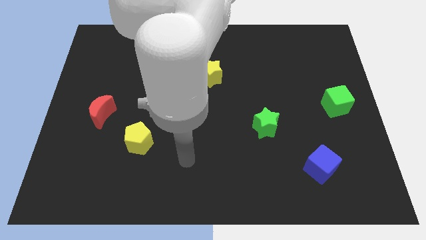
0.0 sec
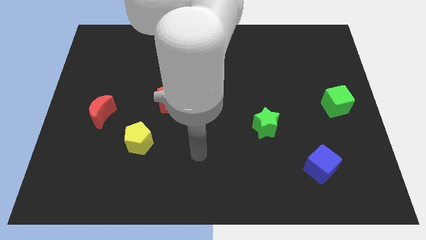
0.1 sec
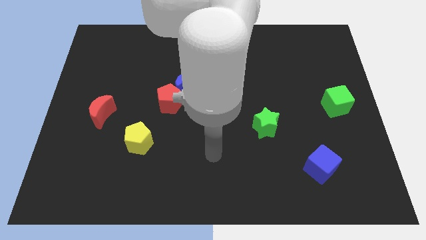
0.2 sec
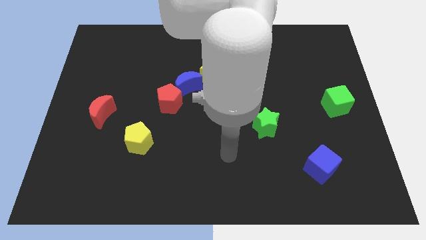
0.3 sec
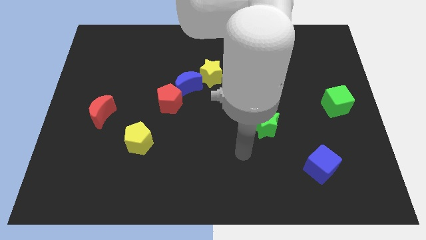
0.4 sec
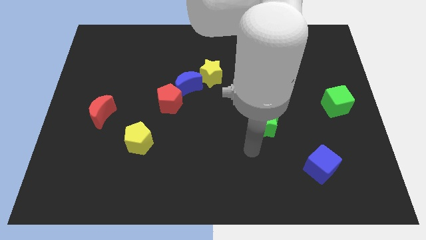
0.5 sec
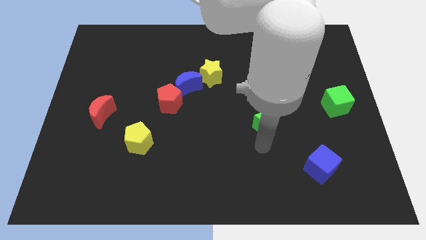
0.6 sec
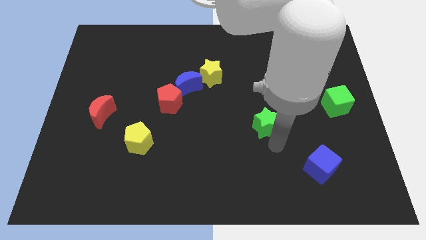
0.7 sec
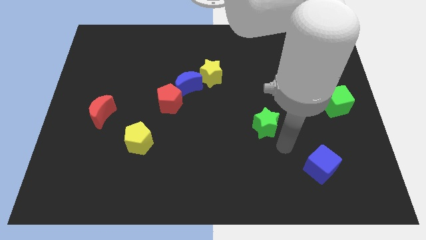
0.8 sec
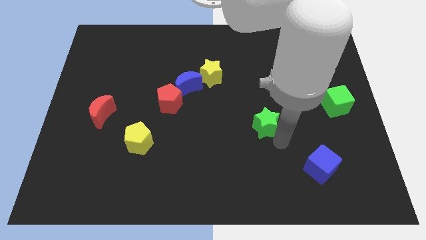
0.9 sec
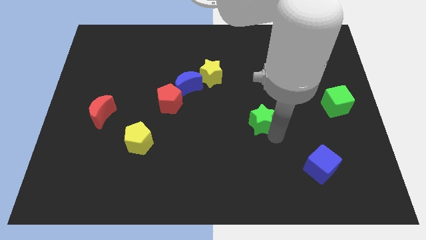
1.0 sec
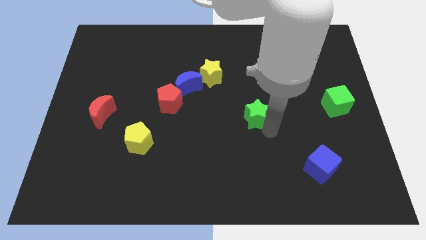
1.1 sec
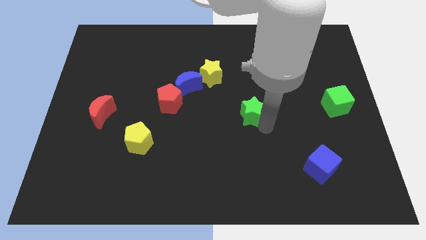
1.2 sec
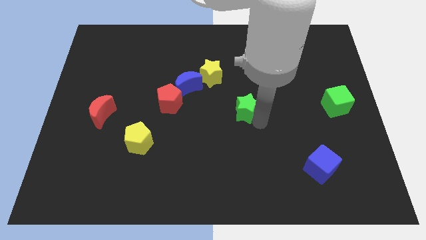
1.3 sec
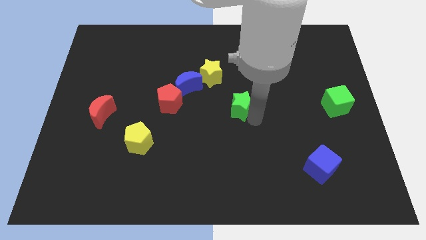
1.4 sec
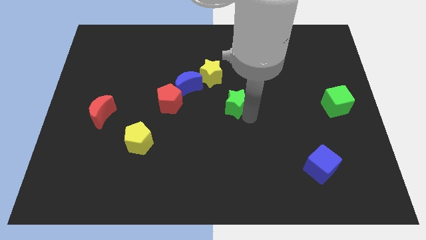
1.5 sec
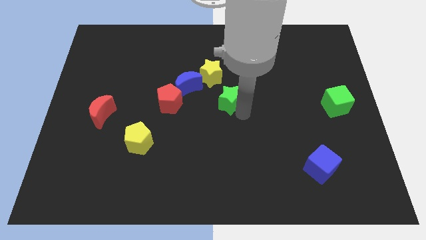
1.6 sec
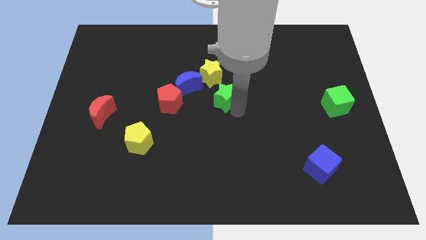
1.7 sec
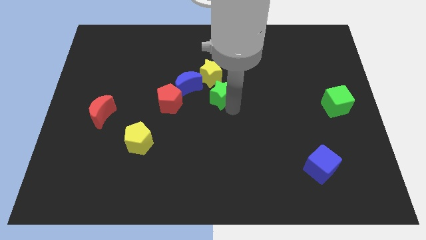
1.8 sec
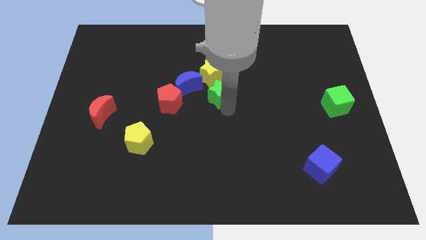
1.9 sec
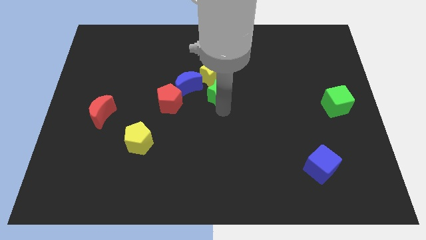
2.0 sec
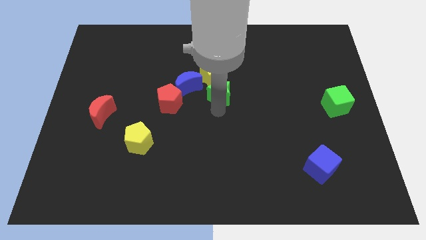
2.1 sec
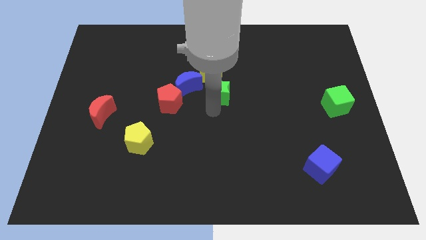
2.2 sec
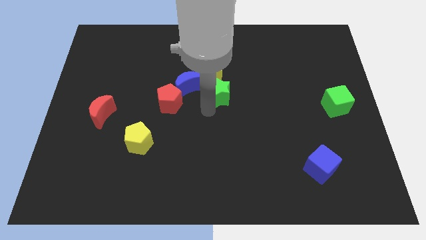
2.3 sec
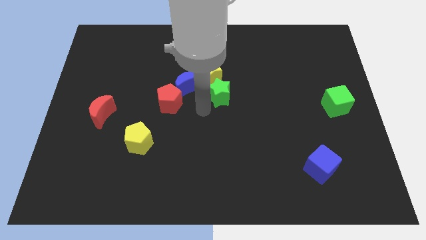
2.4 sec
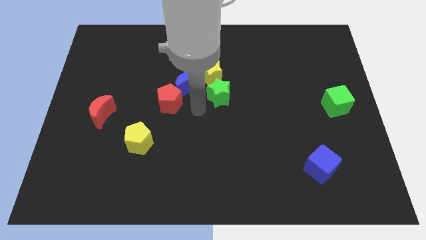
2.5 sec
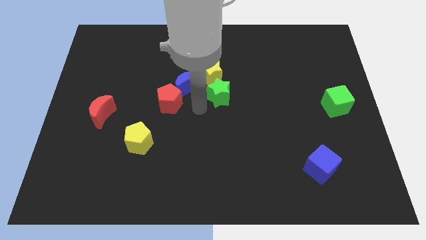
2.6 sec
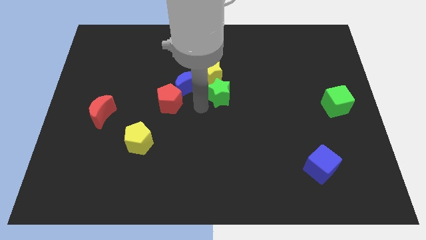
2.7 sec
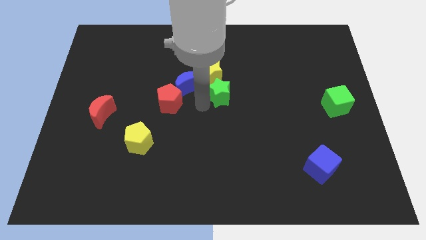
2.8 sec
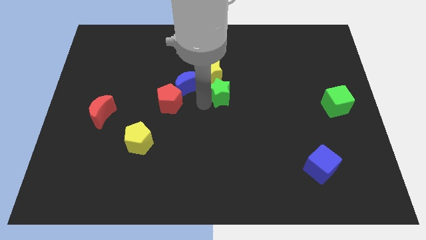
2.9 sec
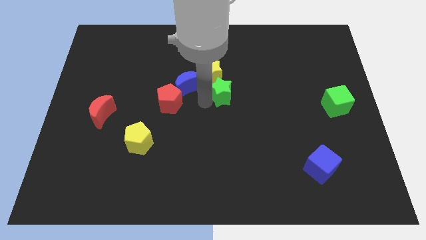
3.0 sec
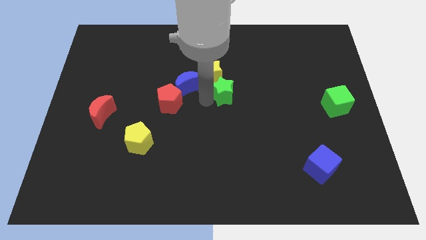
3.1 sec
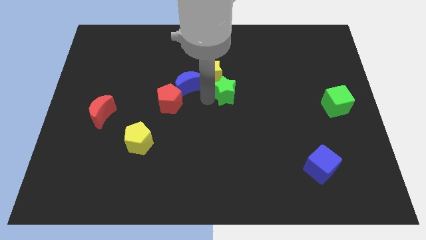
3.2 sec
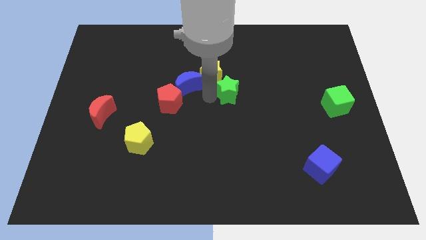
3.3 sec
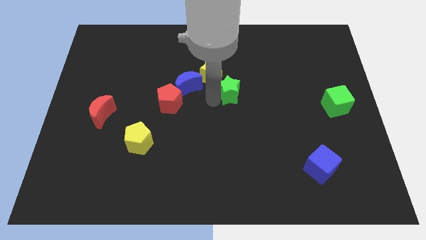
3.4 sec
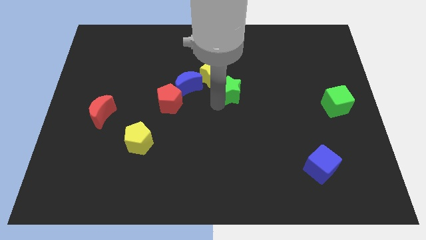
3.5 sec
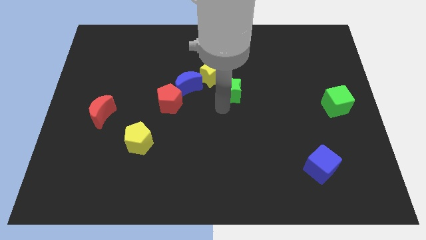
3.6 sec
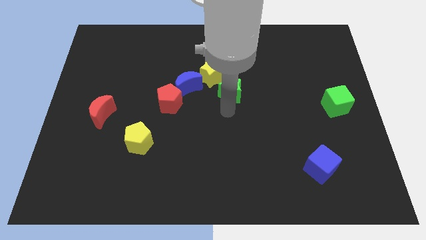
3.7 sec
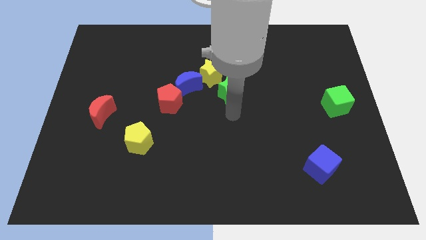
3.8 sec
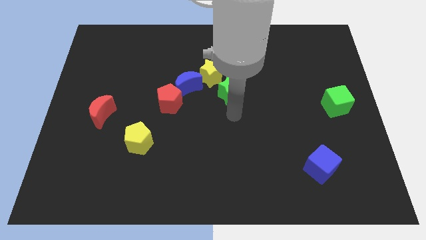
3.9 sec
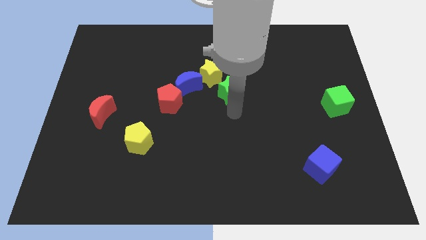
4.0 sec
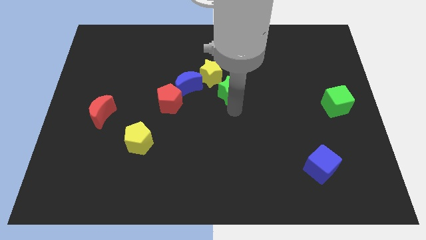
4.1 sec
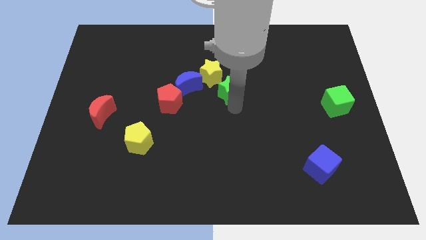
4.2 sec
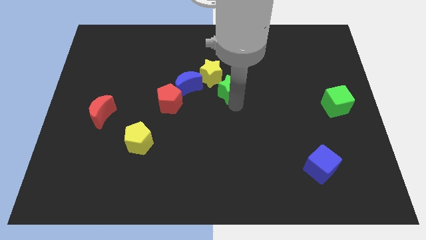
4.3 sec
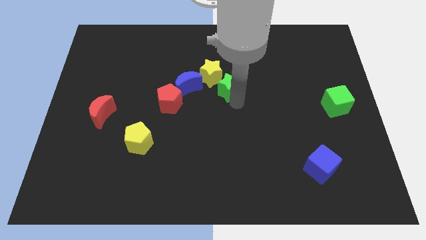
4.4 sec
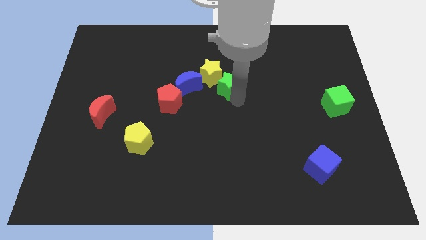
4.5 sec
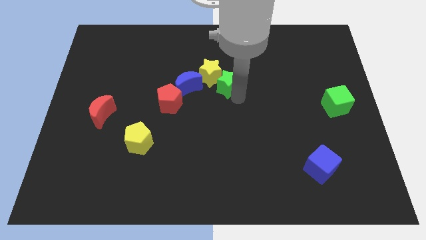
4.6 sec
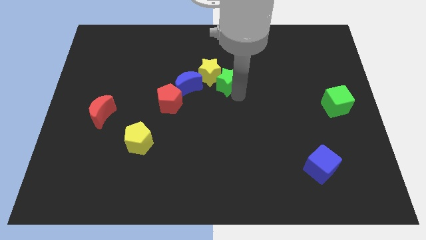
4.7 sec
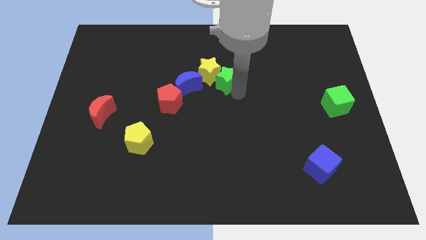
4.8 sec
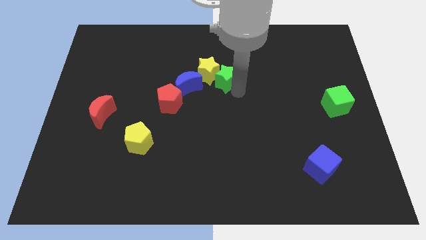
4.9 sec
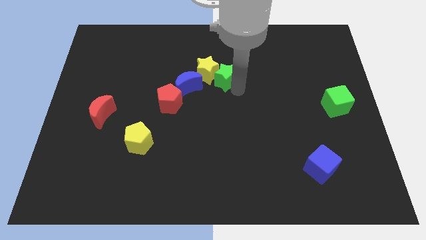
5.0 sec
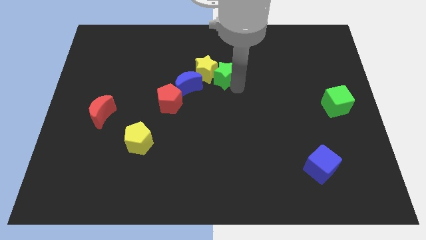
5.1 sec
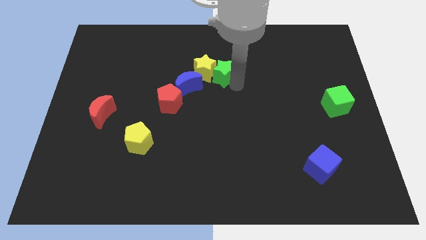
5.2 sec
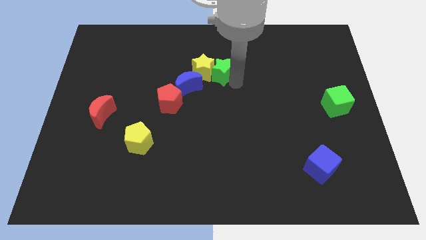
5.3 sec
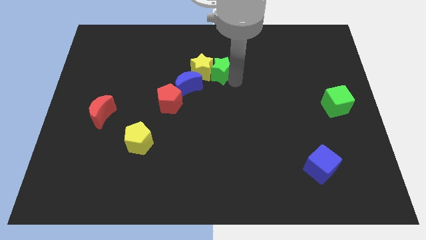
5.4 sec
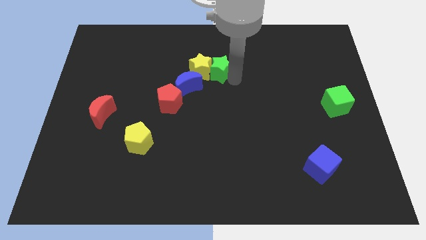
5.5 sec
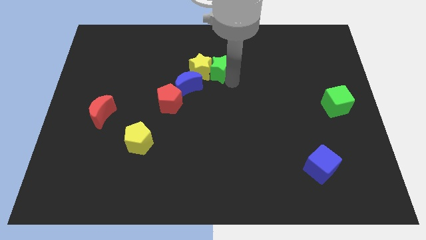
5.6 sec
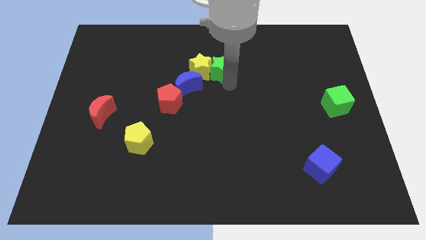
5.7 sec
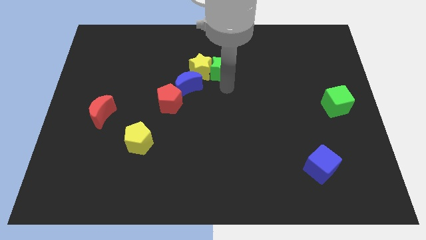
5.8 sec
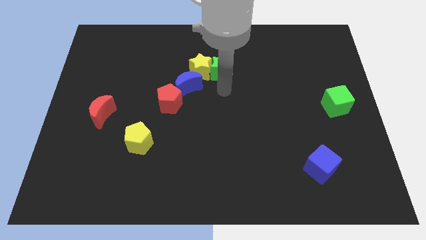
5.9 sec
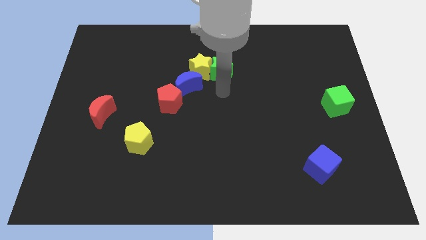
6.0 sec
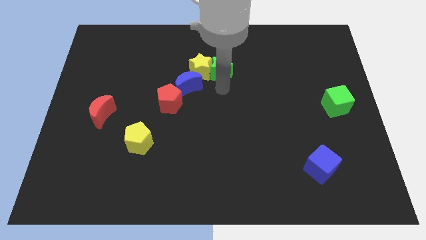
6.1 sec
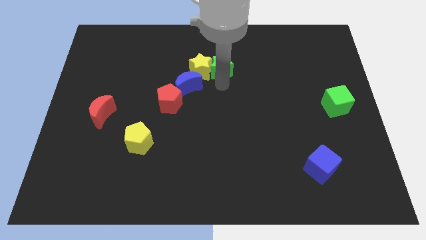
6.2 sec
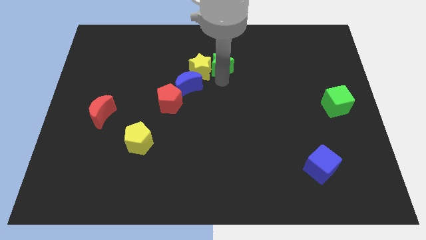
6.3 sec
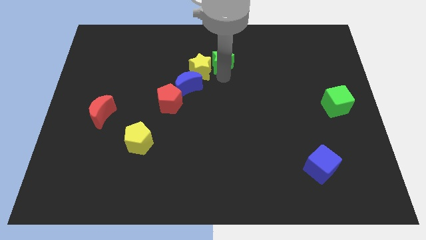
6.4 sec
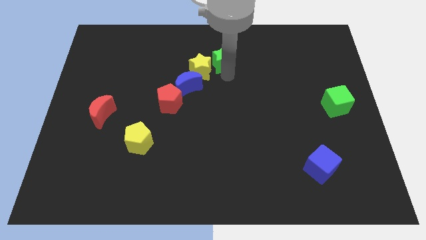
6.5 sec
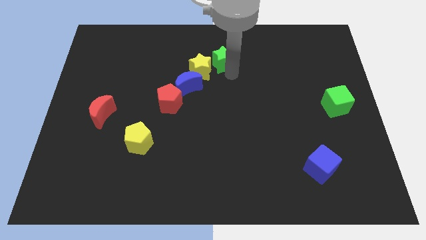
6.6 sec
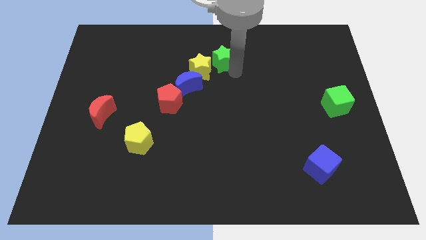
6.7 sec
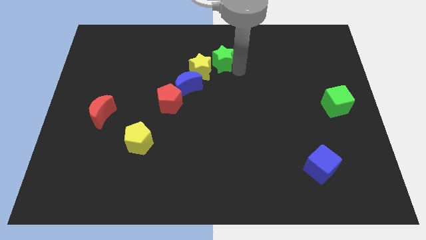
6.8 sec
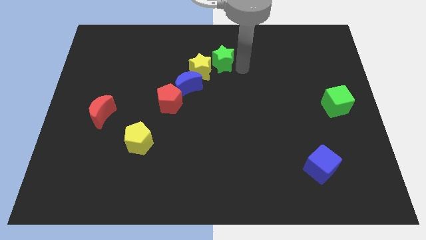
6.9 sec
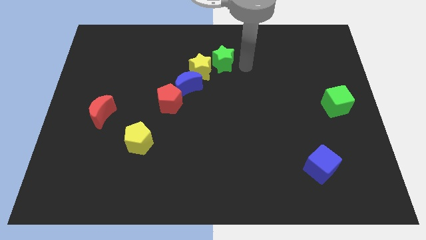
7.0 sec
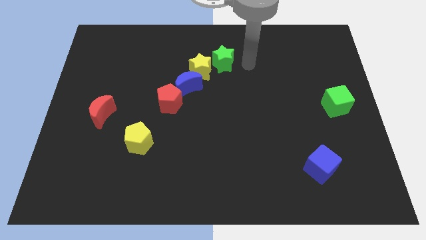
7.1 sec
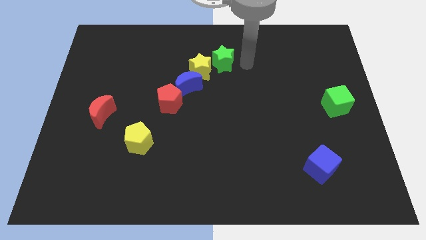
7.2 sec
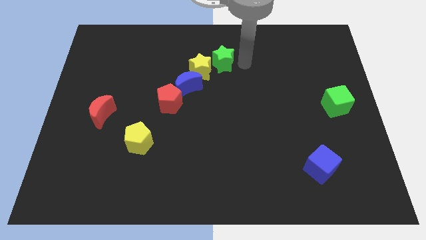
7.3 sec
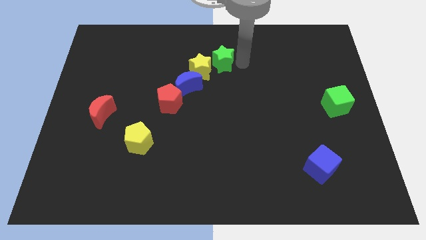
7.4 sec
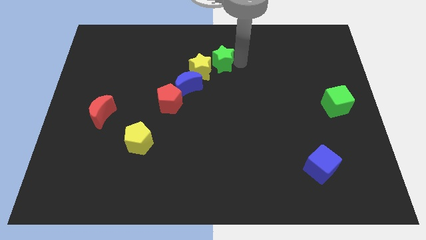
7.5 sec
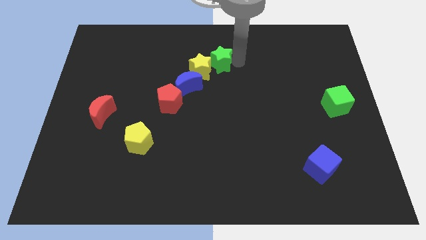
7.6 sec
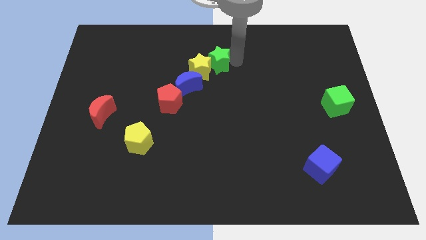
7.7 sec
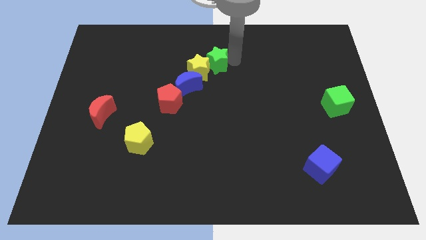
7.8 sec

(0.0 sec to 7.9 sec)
slide the green star diagonally up and left

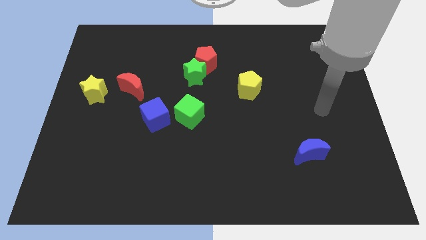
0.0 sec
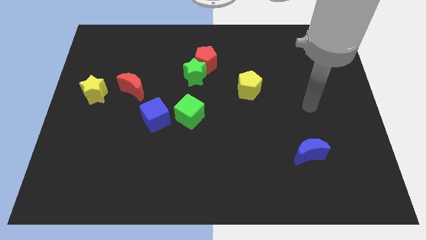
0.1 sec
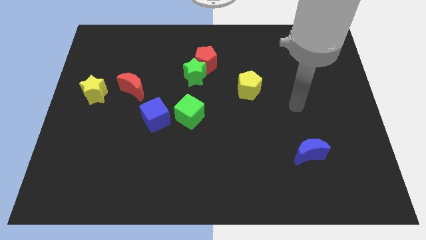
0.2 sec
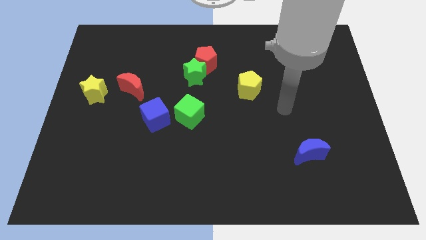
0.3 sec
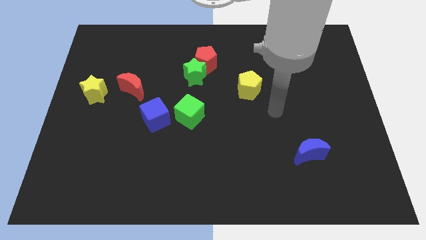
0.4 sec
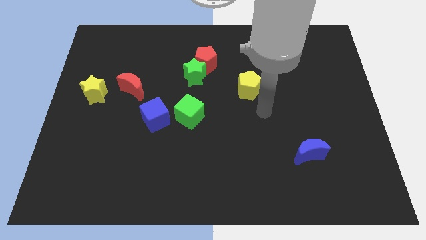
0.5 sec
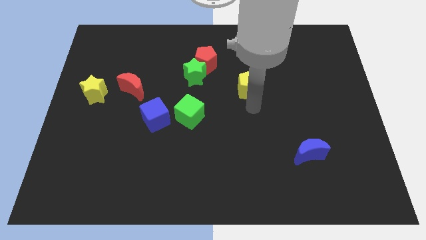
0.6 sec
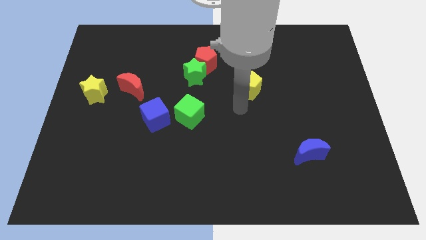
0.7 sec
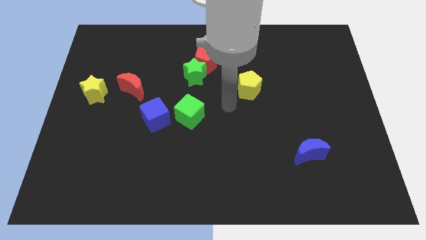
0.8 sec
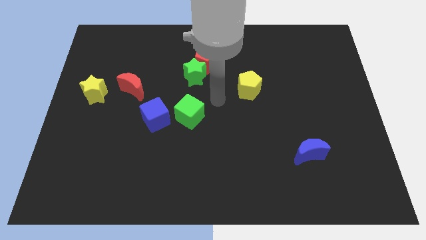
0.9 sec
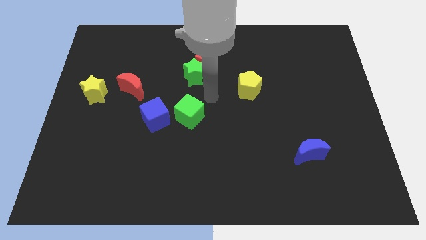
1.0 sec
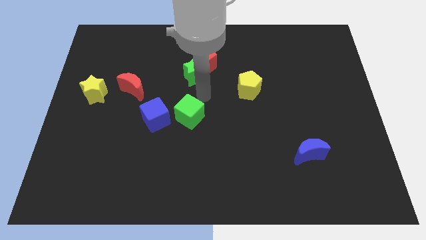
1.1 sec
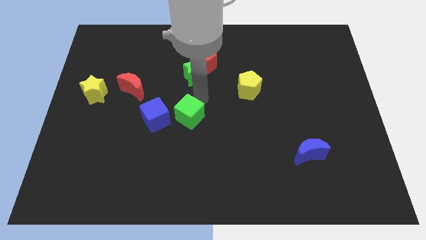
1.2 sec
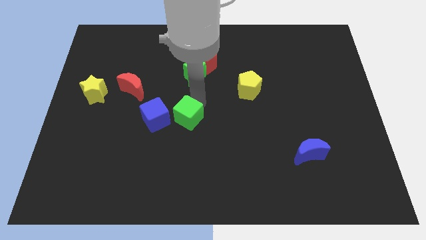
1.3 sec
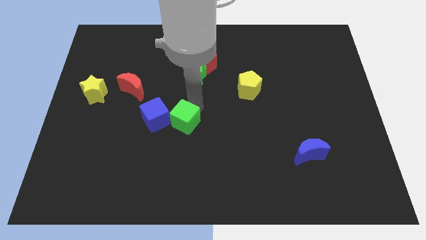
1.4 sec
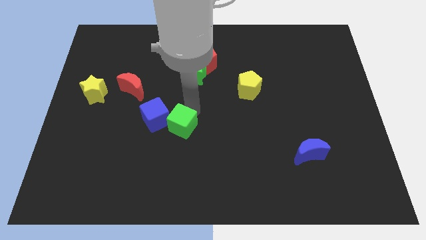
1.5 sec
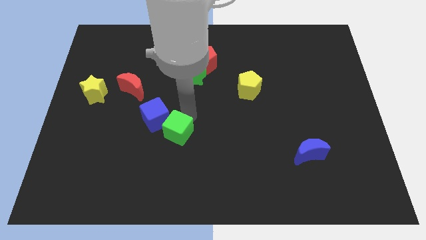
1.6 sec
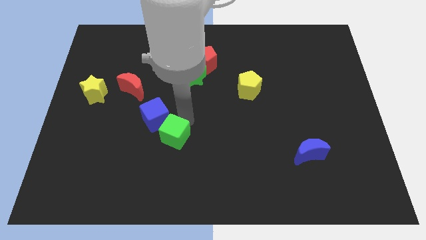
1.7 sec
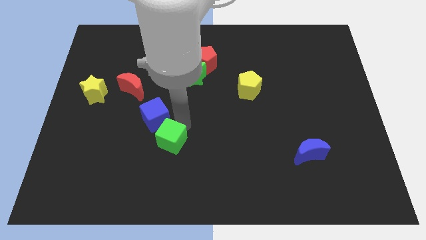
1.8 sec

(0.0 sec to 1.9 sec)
move the green cube down and left diagonally a little
